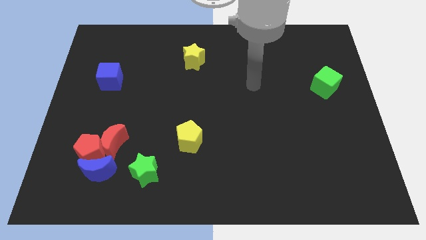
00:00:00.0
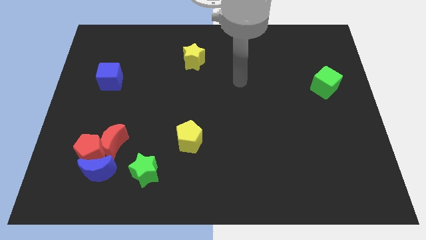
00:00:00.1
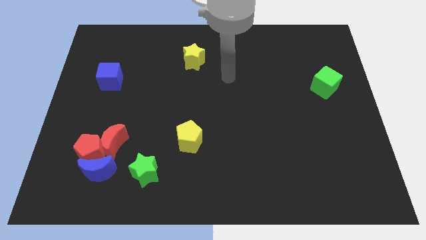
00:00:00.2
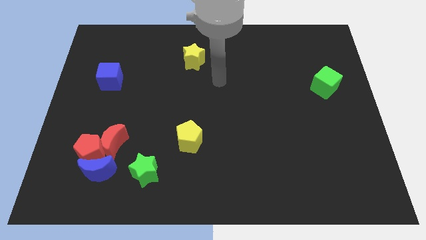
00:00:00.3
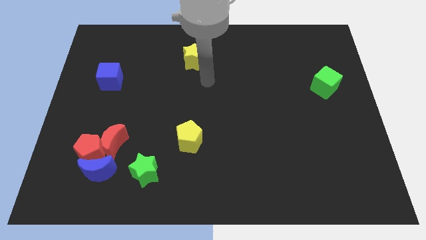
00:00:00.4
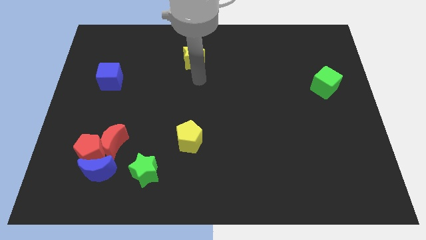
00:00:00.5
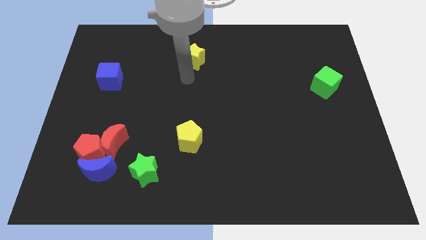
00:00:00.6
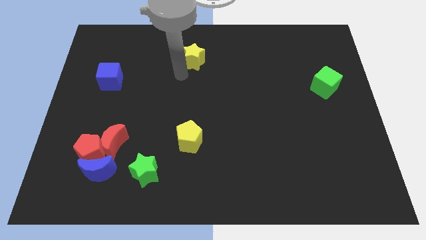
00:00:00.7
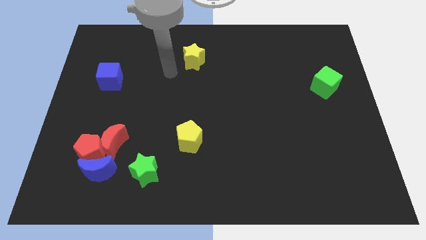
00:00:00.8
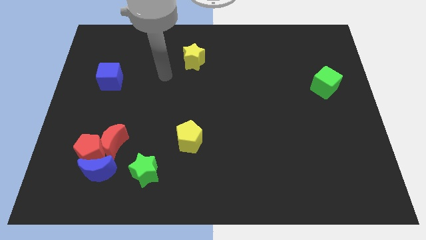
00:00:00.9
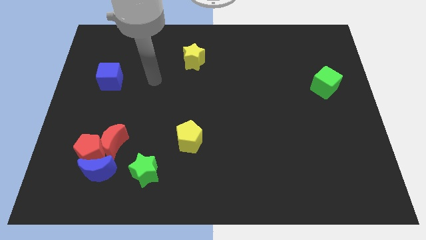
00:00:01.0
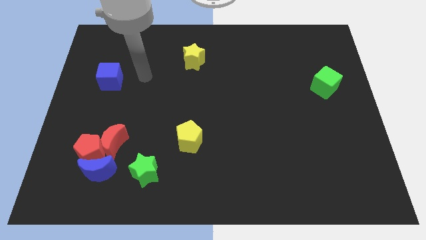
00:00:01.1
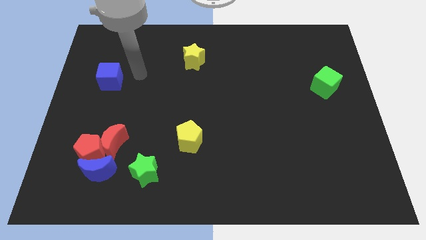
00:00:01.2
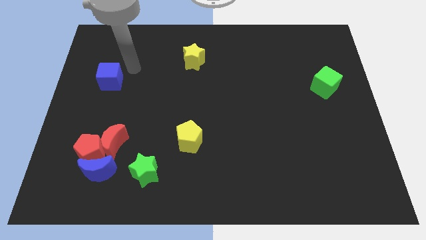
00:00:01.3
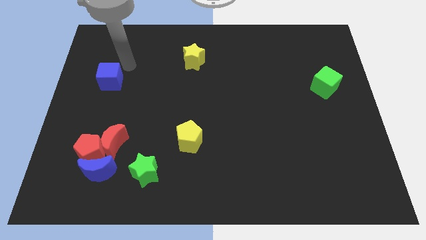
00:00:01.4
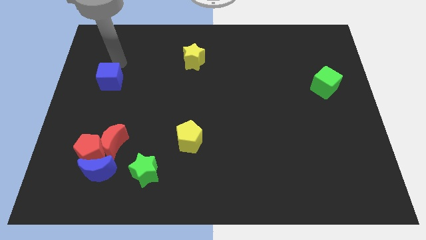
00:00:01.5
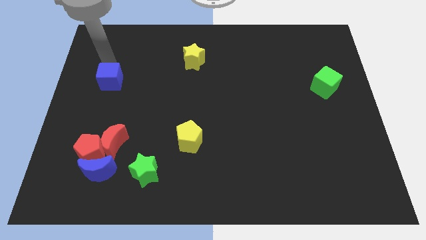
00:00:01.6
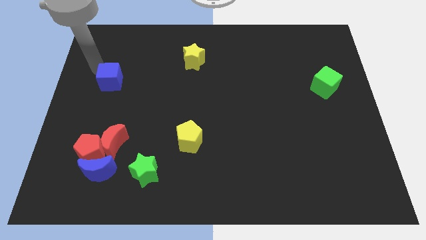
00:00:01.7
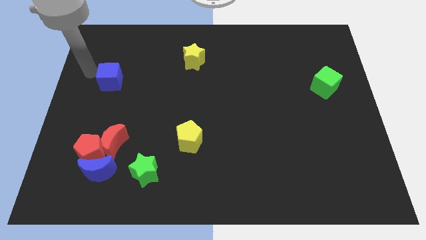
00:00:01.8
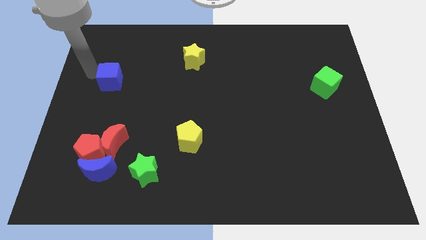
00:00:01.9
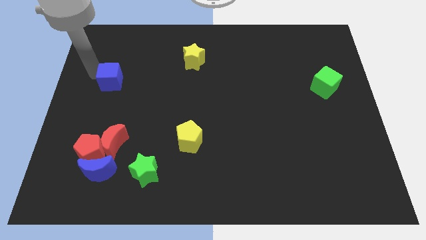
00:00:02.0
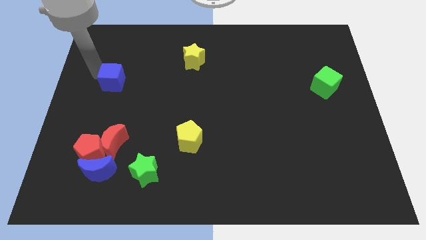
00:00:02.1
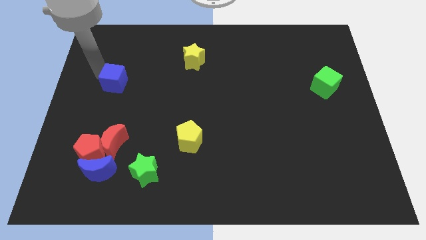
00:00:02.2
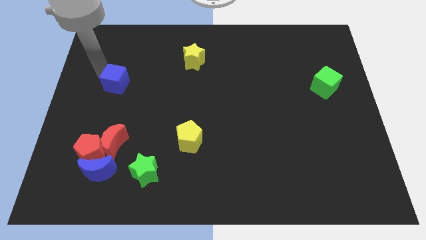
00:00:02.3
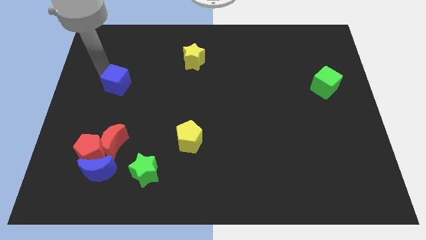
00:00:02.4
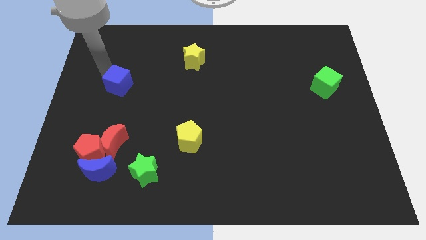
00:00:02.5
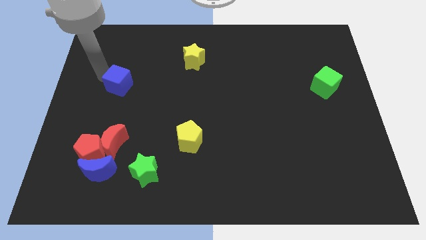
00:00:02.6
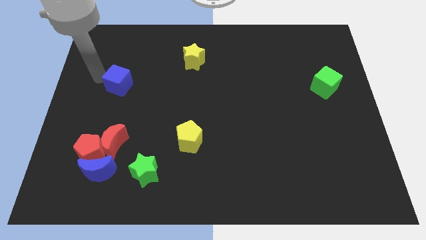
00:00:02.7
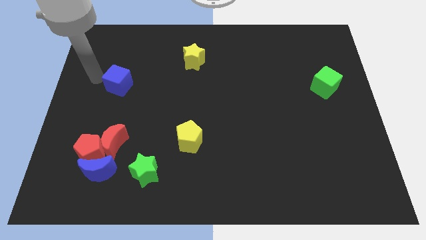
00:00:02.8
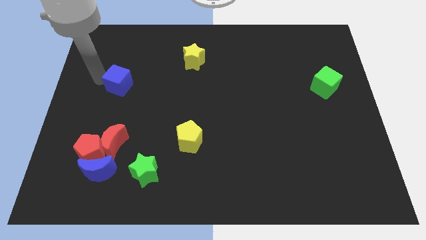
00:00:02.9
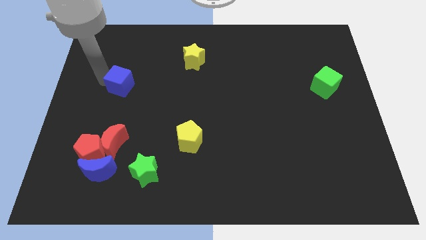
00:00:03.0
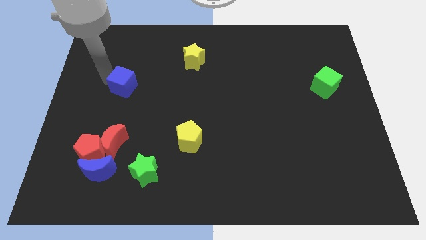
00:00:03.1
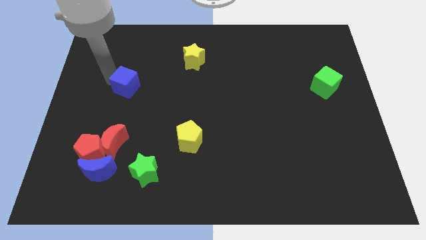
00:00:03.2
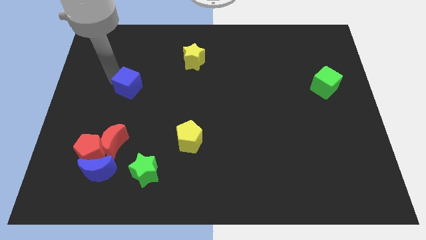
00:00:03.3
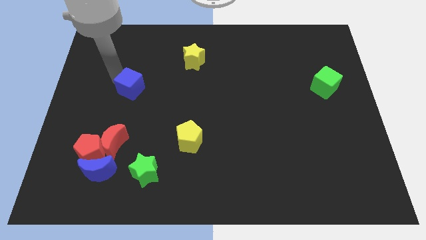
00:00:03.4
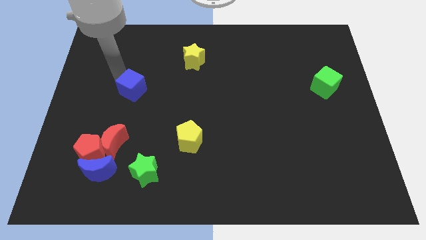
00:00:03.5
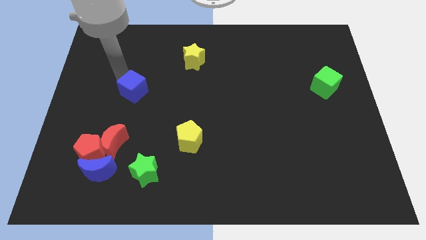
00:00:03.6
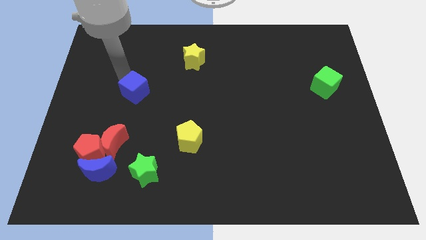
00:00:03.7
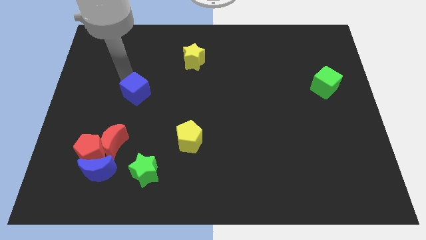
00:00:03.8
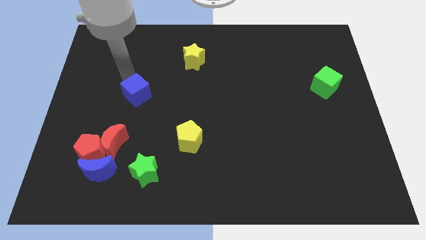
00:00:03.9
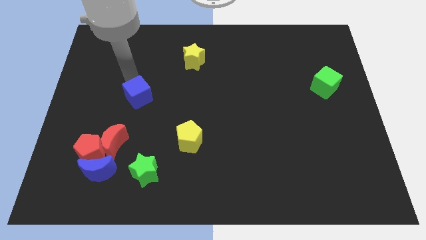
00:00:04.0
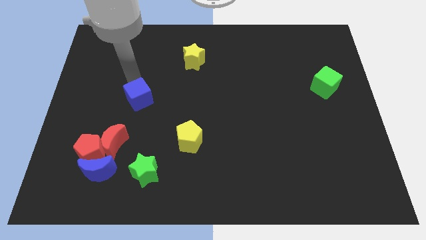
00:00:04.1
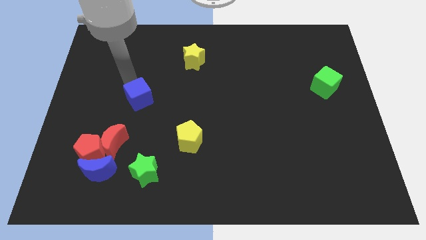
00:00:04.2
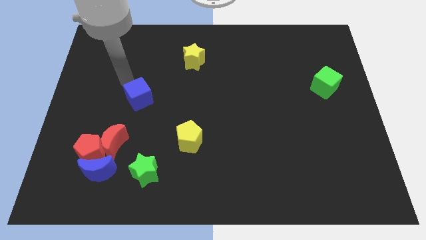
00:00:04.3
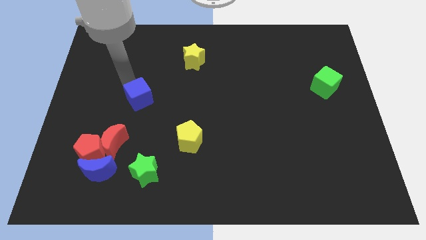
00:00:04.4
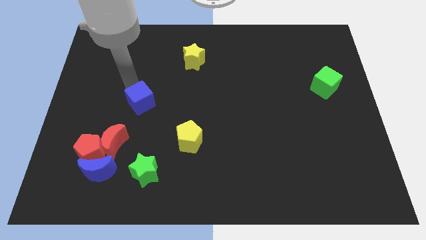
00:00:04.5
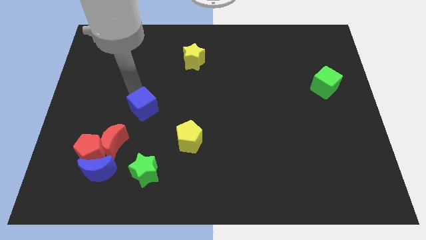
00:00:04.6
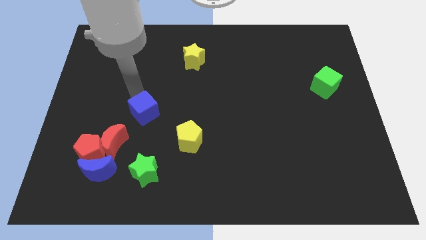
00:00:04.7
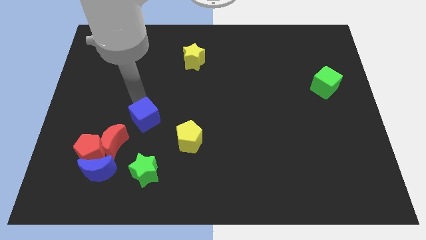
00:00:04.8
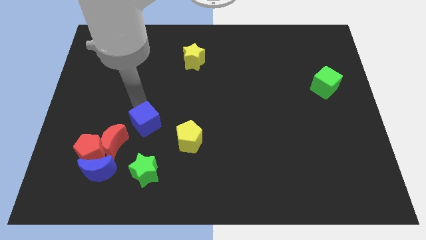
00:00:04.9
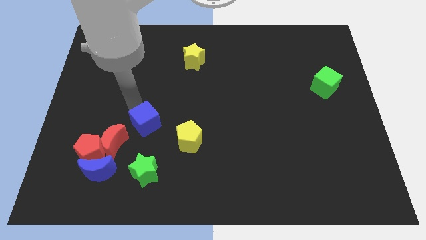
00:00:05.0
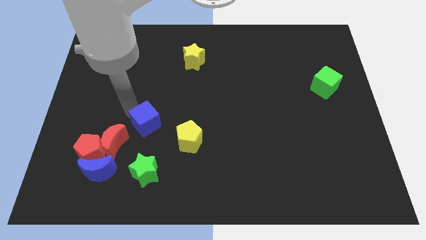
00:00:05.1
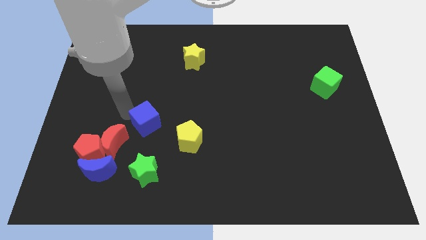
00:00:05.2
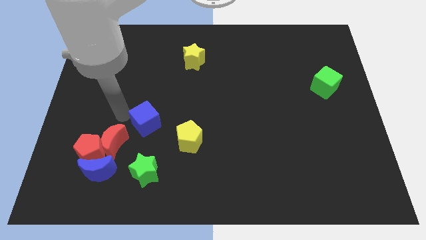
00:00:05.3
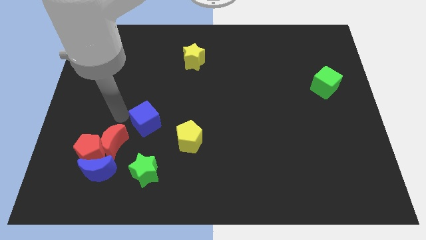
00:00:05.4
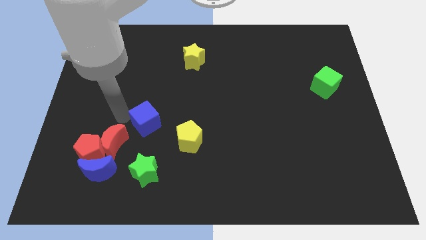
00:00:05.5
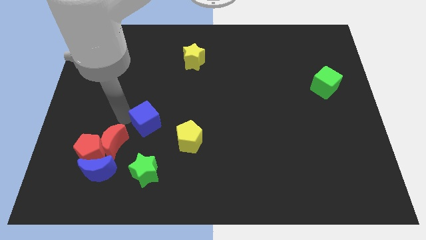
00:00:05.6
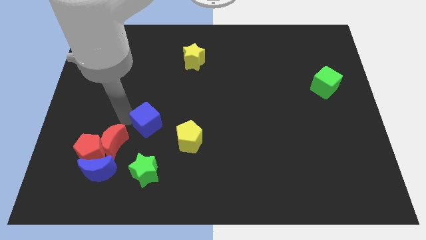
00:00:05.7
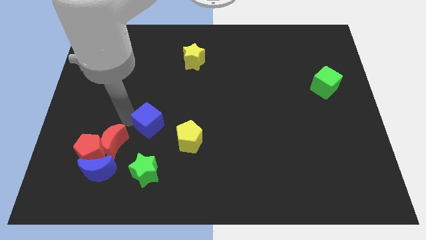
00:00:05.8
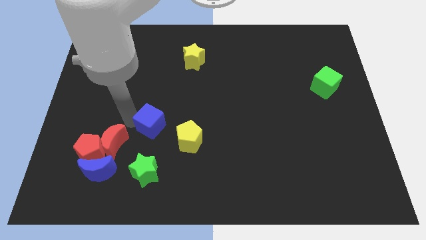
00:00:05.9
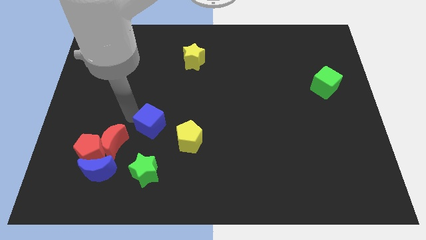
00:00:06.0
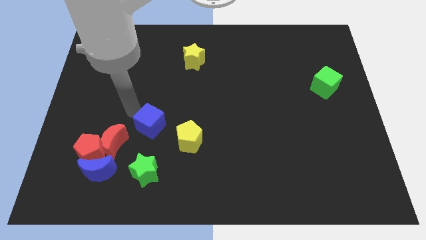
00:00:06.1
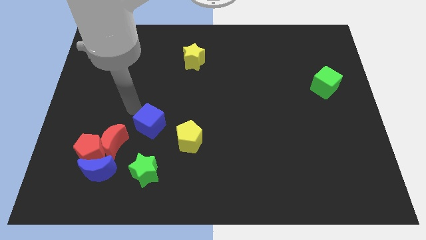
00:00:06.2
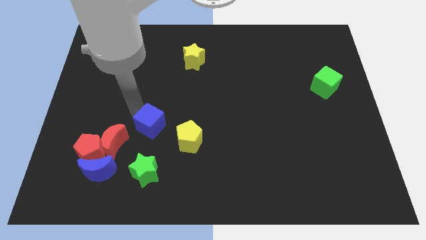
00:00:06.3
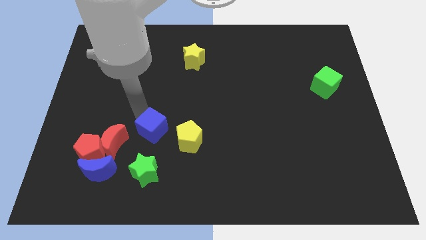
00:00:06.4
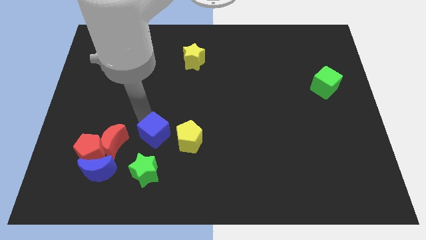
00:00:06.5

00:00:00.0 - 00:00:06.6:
move the blue cube down and to the right diagonally

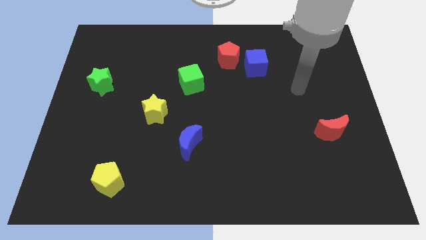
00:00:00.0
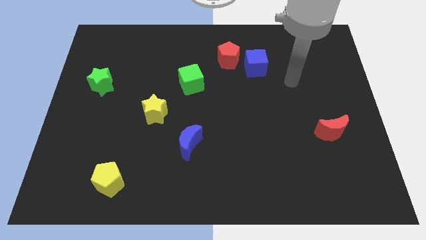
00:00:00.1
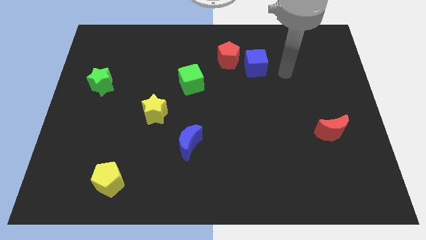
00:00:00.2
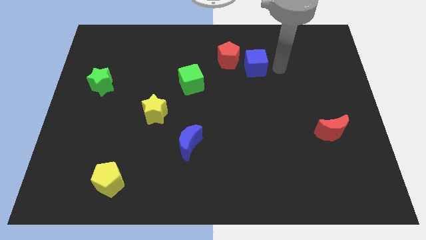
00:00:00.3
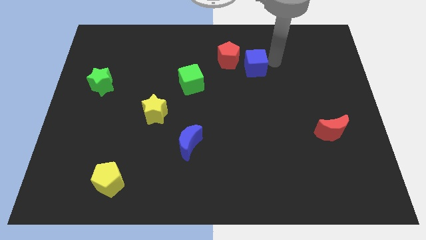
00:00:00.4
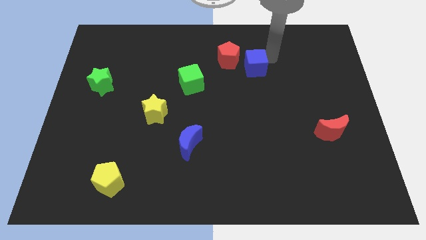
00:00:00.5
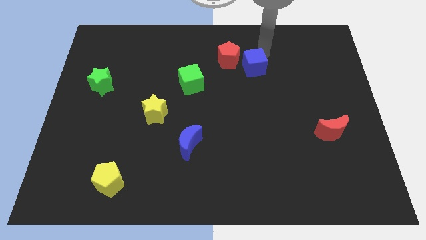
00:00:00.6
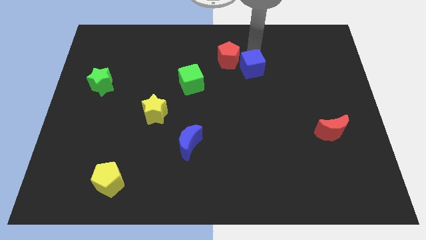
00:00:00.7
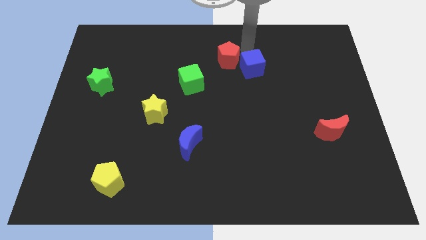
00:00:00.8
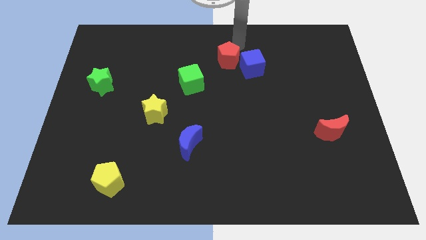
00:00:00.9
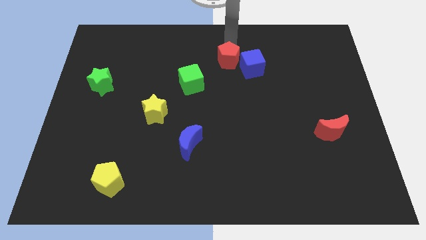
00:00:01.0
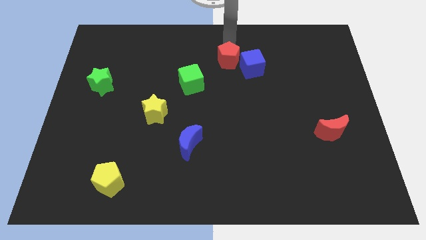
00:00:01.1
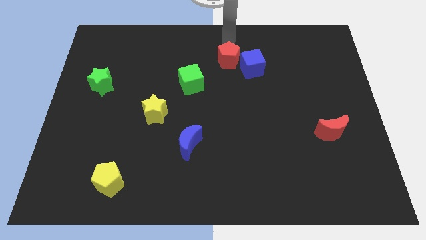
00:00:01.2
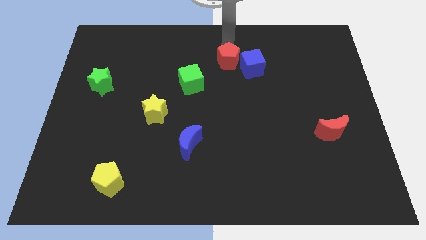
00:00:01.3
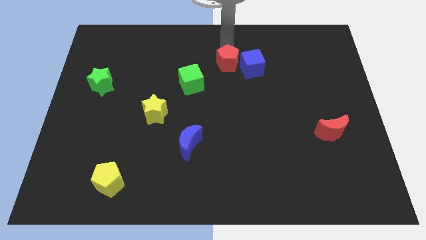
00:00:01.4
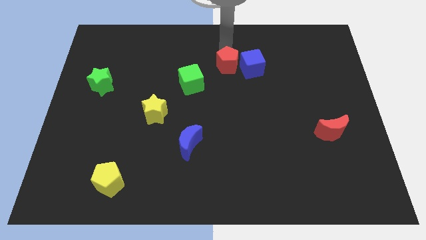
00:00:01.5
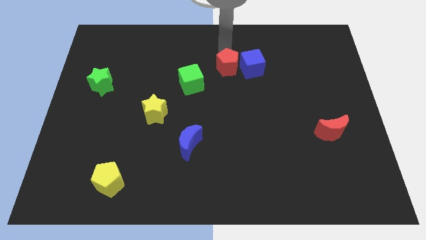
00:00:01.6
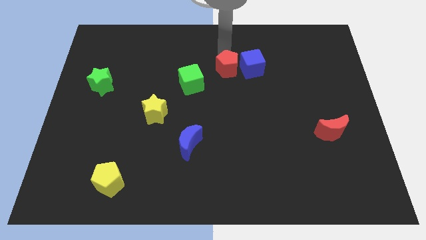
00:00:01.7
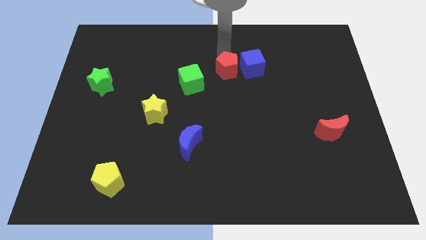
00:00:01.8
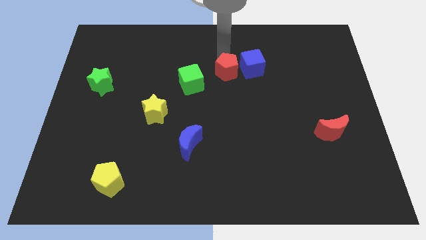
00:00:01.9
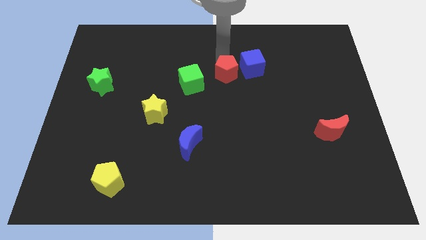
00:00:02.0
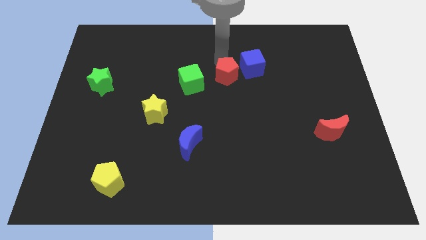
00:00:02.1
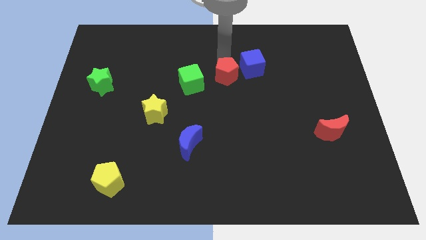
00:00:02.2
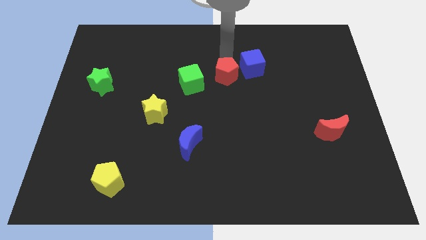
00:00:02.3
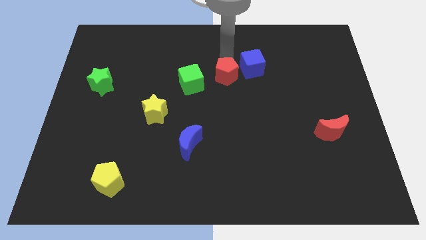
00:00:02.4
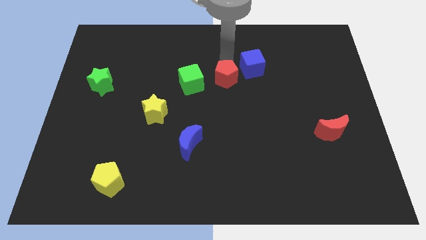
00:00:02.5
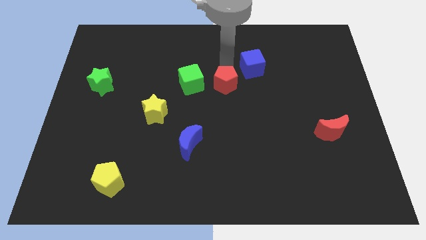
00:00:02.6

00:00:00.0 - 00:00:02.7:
push the red pentagon slightly downwards
